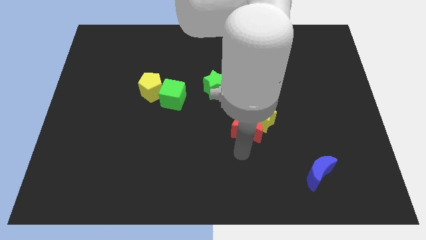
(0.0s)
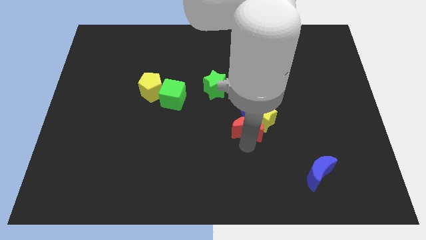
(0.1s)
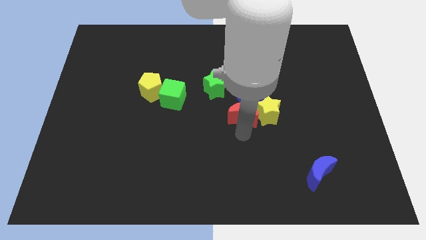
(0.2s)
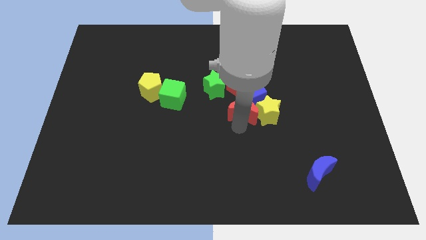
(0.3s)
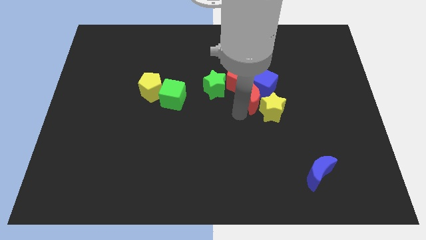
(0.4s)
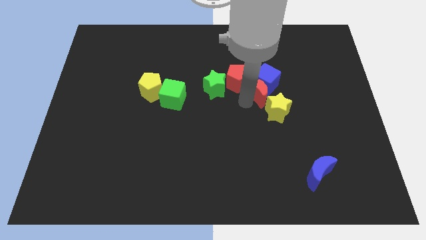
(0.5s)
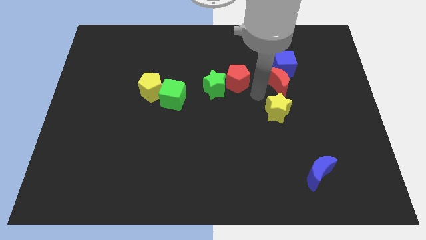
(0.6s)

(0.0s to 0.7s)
separate the yellow star from the red moon and blue cube

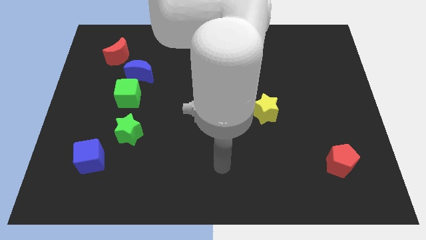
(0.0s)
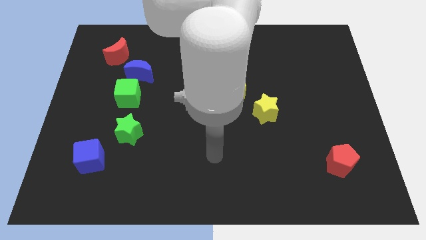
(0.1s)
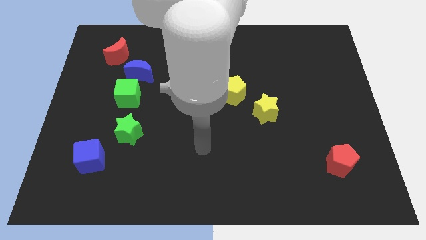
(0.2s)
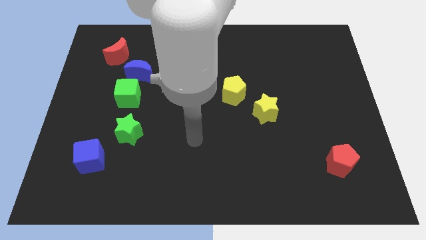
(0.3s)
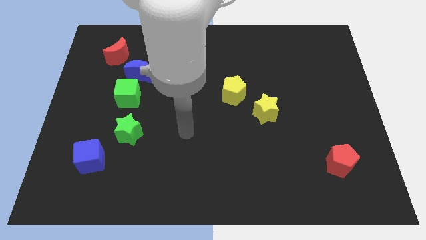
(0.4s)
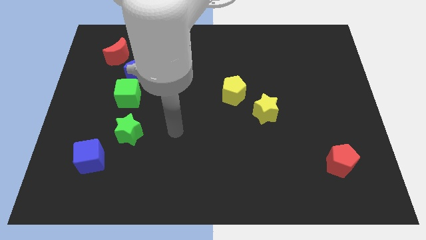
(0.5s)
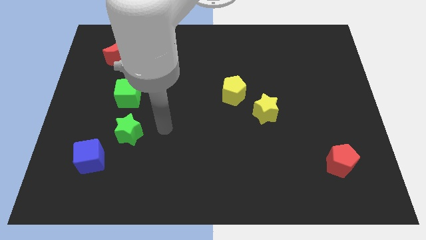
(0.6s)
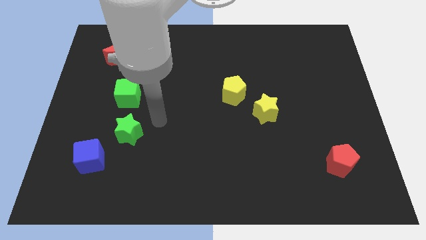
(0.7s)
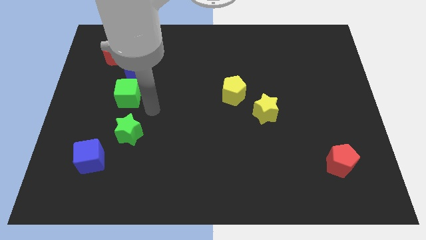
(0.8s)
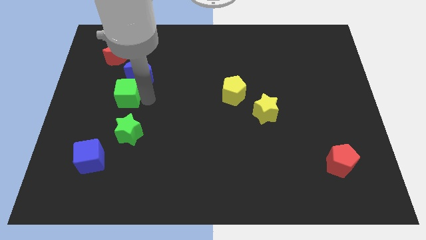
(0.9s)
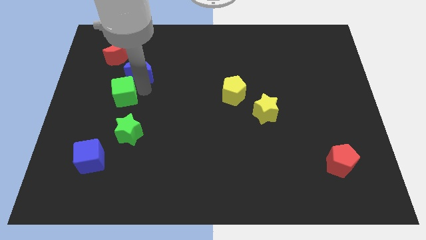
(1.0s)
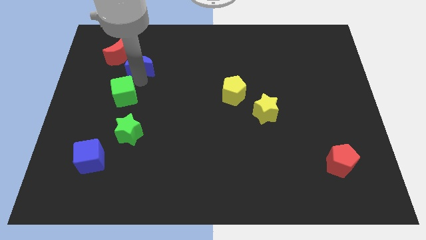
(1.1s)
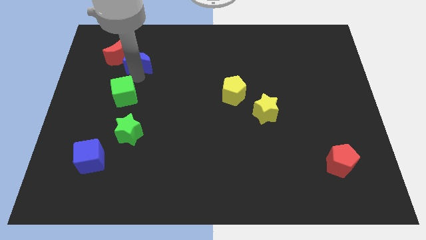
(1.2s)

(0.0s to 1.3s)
move the green cube away from the blue moon

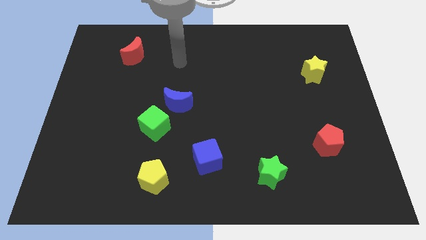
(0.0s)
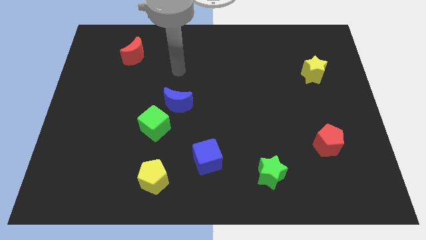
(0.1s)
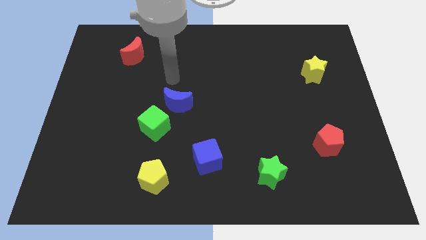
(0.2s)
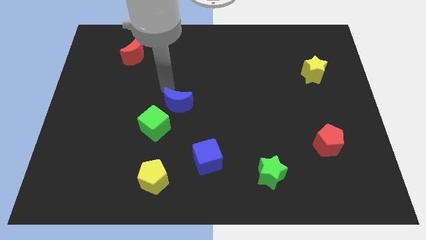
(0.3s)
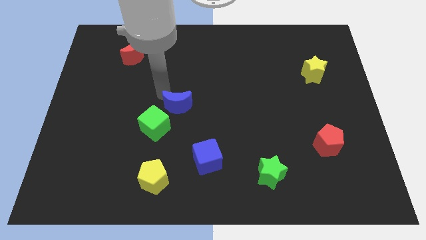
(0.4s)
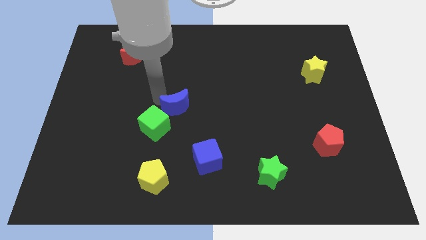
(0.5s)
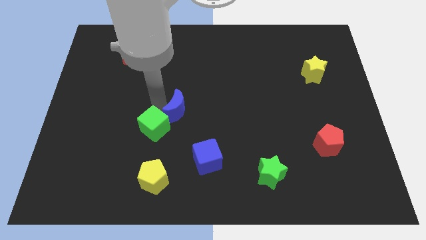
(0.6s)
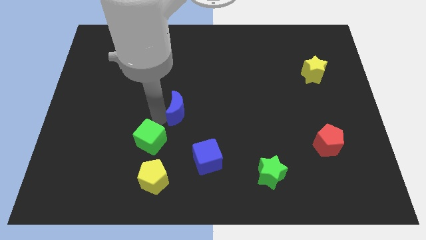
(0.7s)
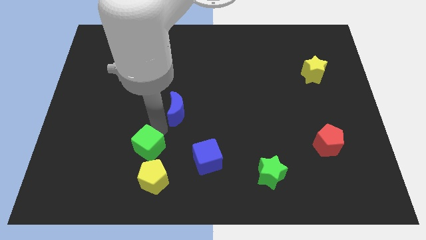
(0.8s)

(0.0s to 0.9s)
pull the blue moon apart from the green cube

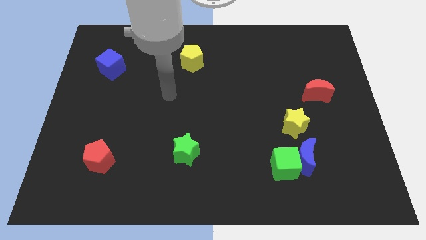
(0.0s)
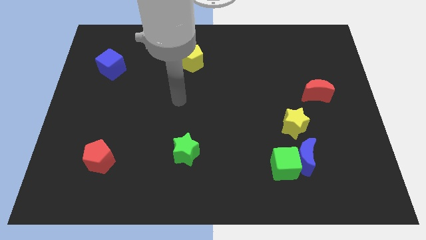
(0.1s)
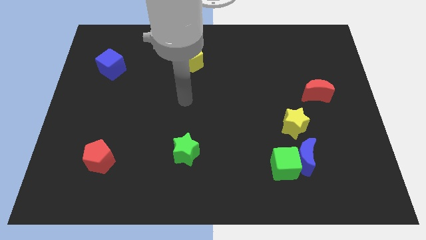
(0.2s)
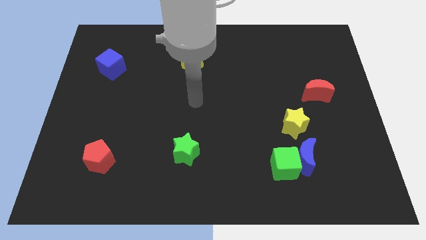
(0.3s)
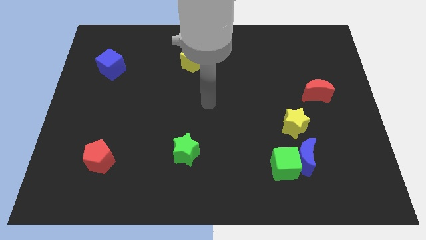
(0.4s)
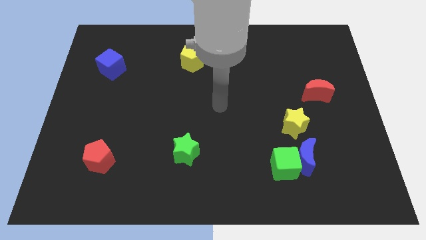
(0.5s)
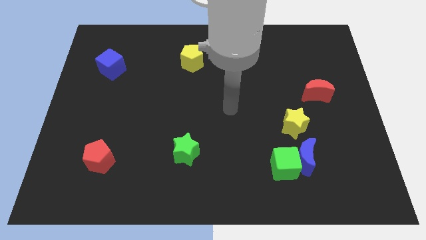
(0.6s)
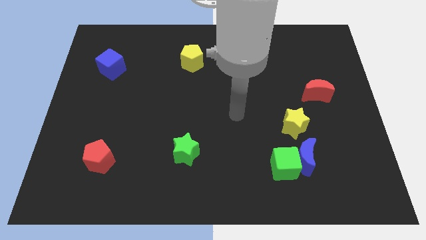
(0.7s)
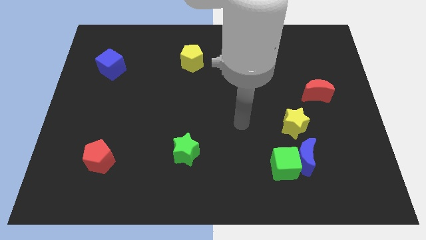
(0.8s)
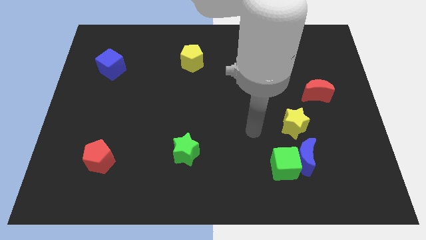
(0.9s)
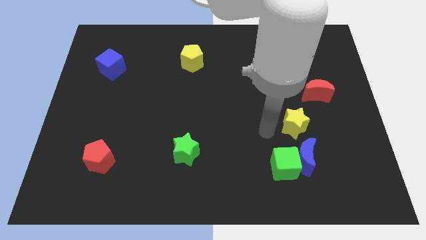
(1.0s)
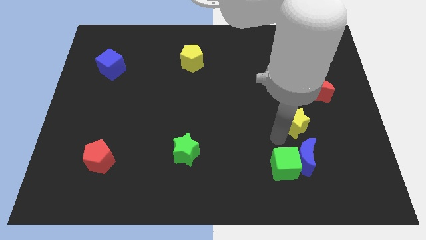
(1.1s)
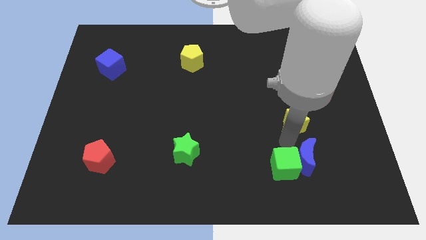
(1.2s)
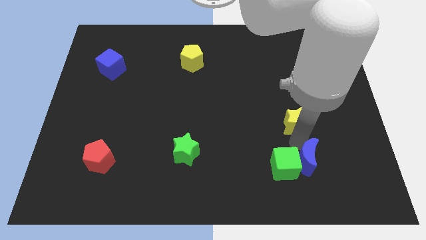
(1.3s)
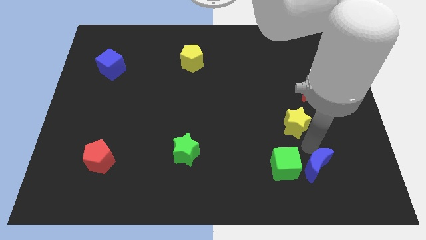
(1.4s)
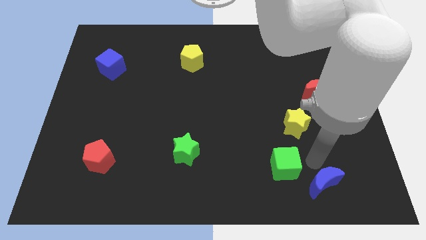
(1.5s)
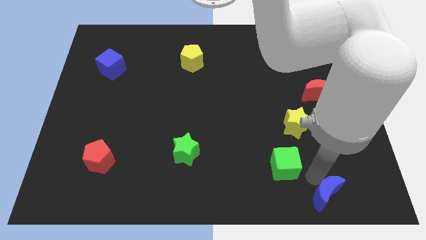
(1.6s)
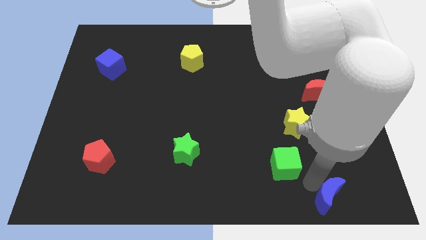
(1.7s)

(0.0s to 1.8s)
pull the green cube apart from the blue moon

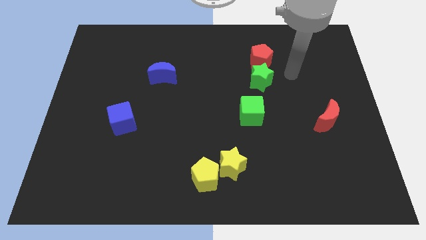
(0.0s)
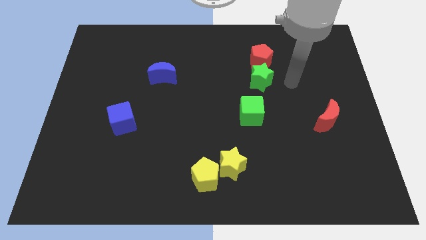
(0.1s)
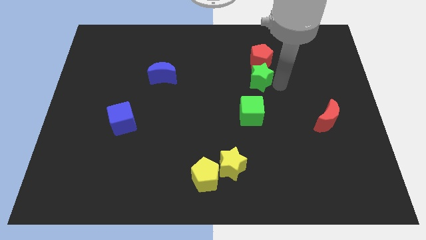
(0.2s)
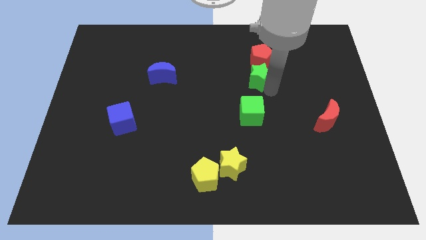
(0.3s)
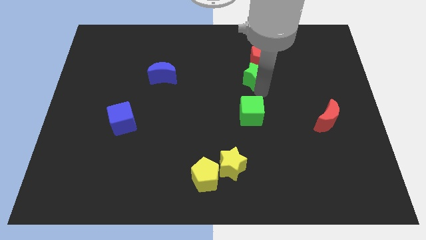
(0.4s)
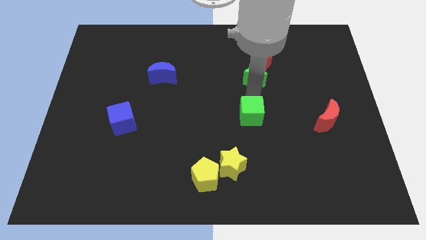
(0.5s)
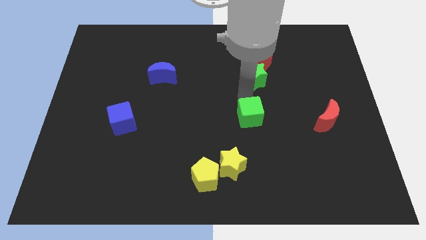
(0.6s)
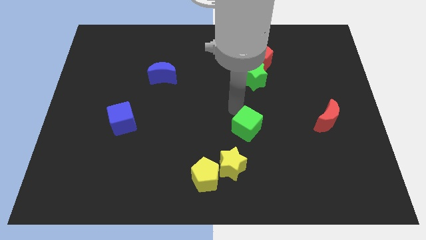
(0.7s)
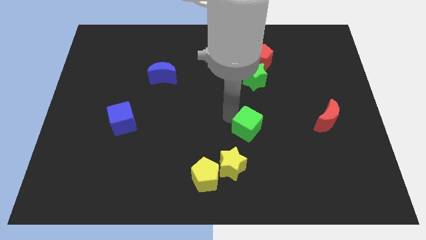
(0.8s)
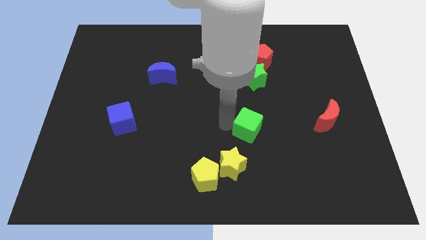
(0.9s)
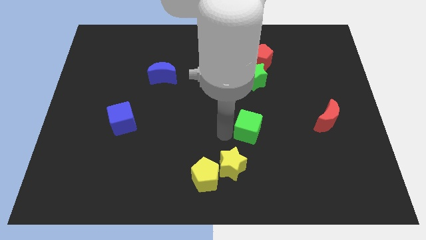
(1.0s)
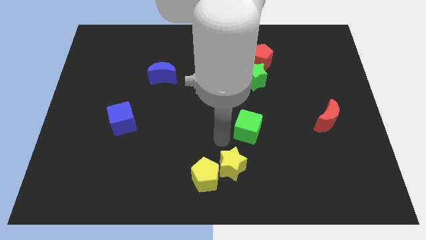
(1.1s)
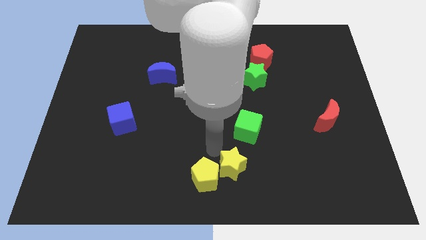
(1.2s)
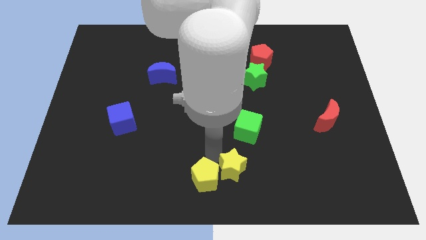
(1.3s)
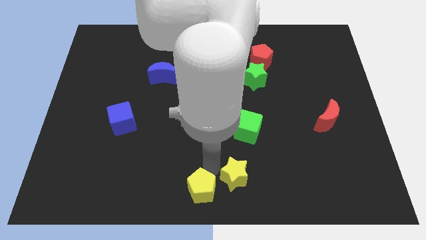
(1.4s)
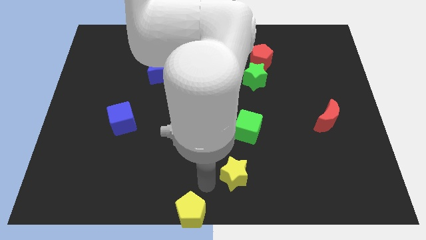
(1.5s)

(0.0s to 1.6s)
separate the yellow star from the yellow pentagon

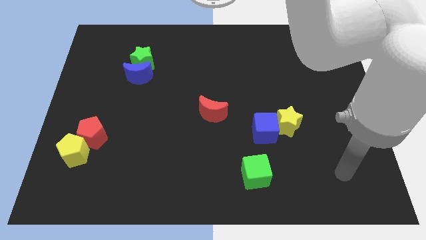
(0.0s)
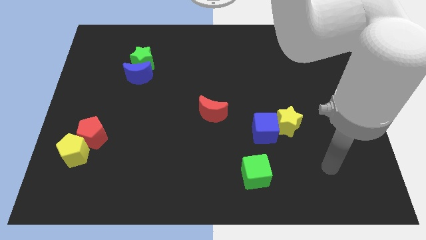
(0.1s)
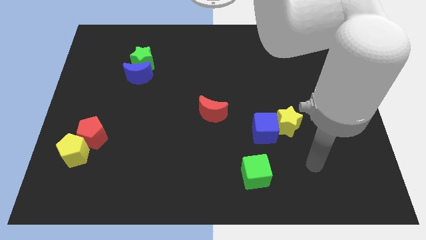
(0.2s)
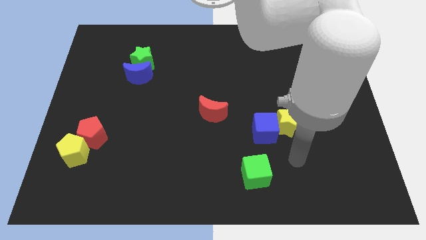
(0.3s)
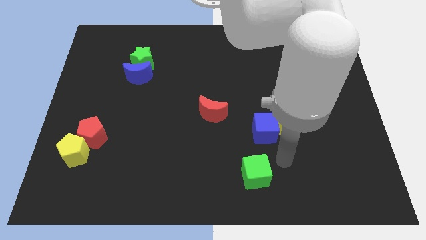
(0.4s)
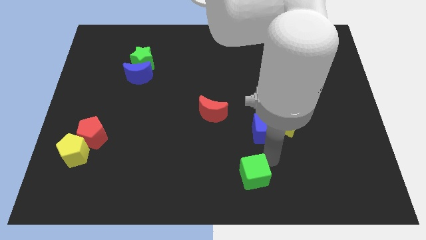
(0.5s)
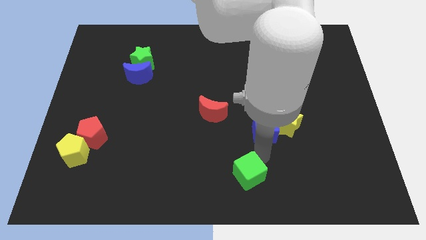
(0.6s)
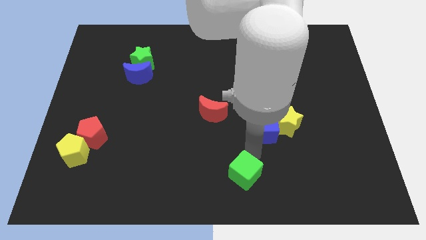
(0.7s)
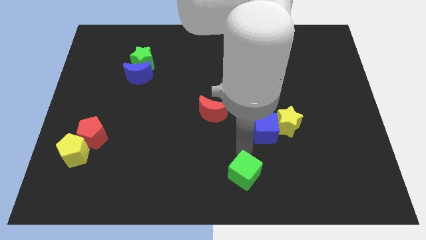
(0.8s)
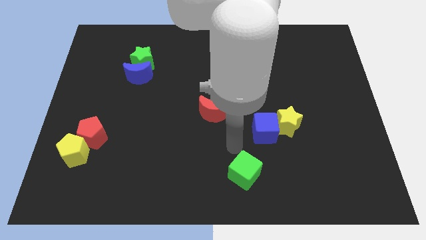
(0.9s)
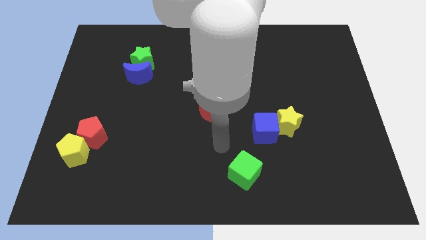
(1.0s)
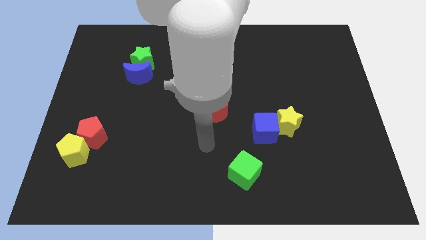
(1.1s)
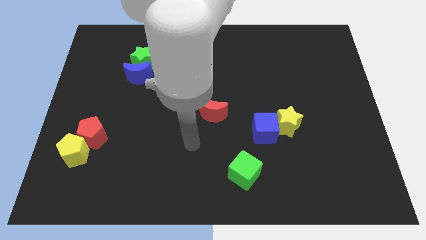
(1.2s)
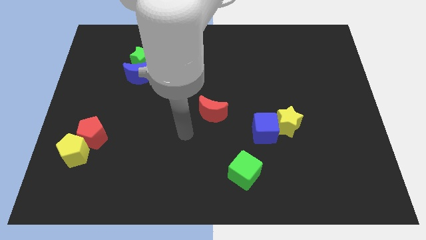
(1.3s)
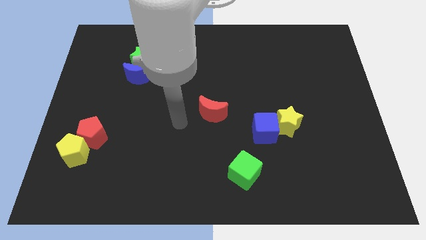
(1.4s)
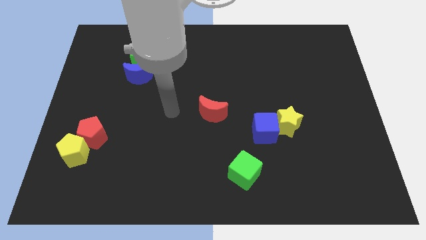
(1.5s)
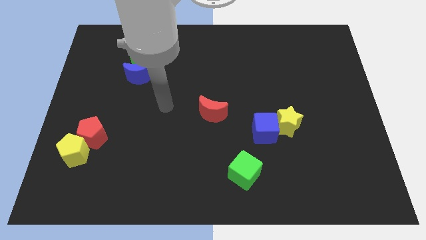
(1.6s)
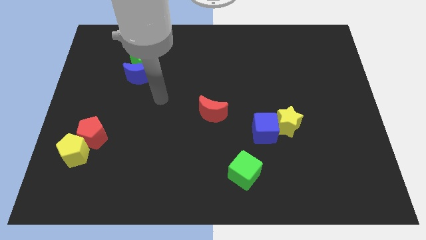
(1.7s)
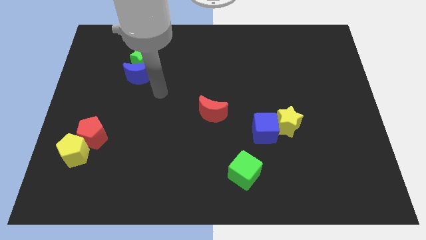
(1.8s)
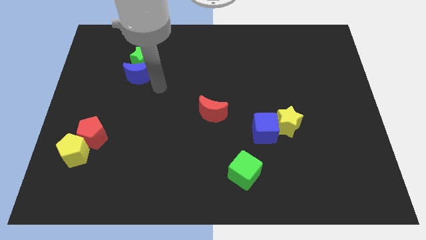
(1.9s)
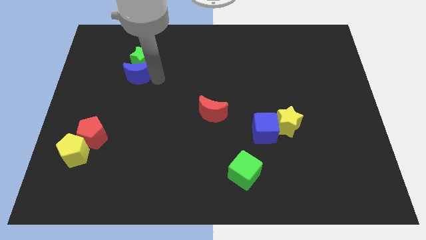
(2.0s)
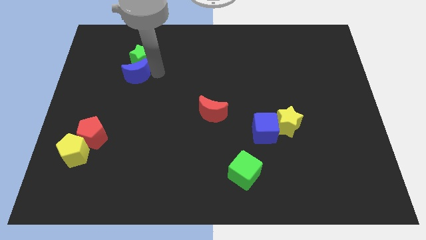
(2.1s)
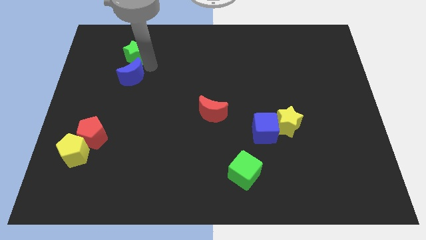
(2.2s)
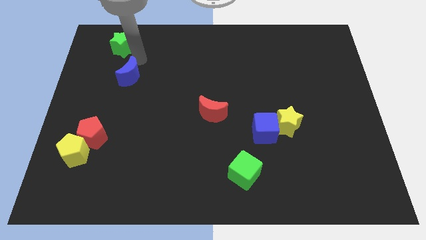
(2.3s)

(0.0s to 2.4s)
separate the blue moon from the green star

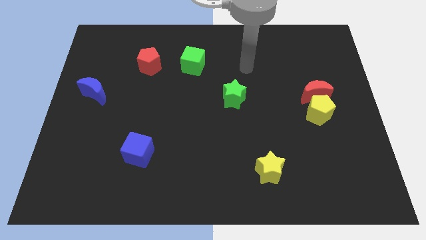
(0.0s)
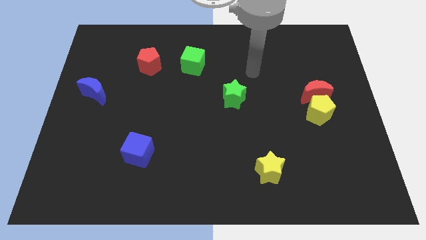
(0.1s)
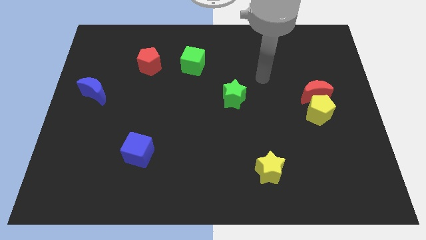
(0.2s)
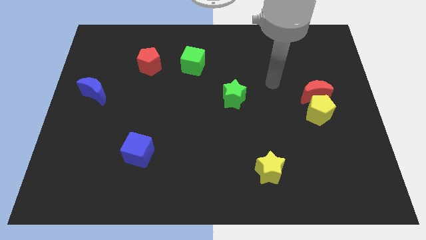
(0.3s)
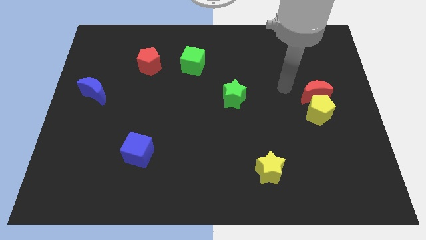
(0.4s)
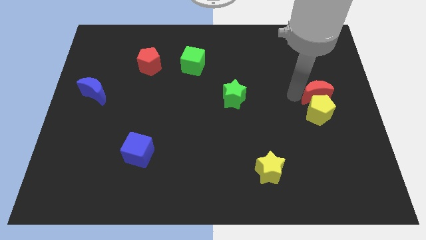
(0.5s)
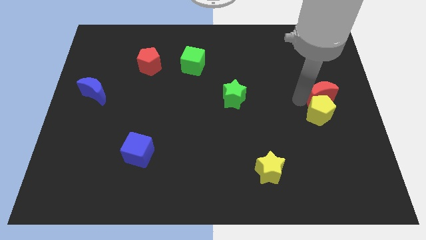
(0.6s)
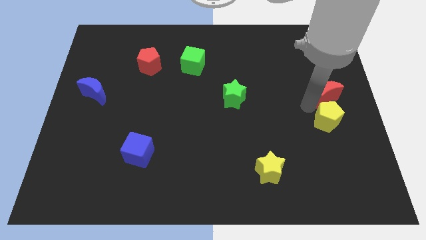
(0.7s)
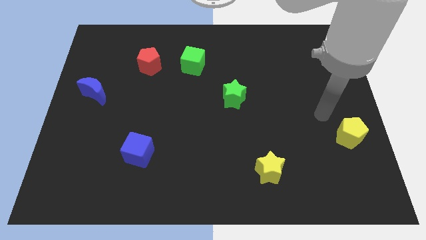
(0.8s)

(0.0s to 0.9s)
pull the red moon apart from the yellow pentagon
